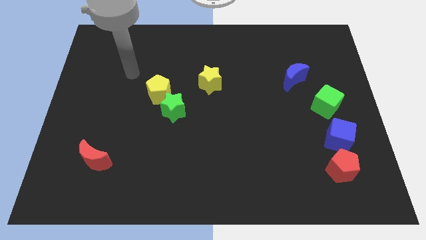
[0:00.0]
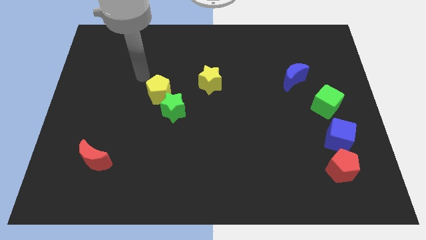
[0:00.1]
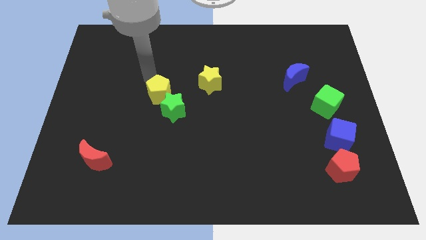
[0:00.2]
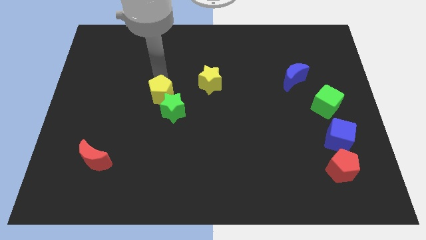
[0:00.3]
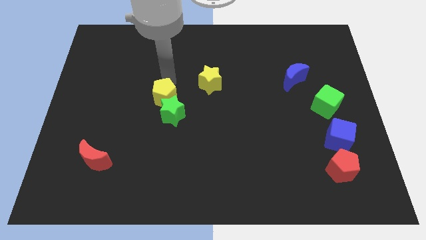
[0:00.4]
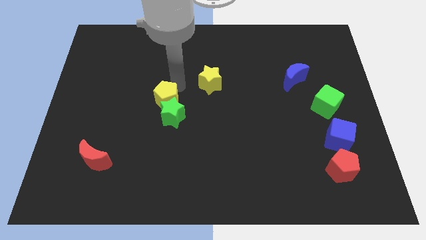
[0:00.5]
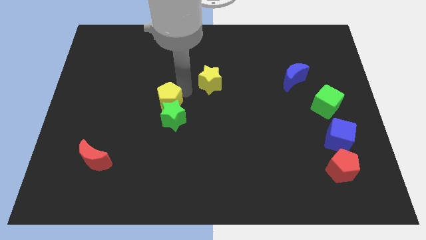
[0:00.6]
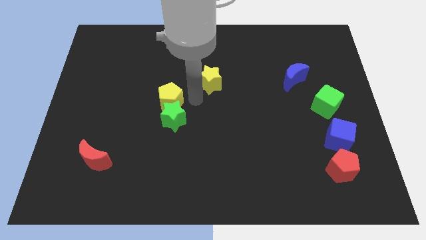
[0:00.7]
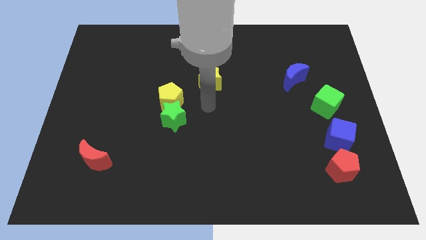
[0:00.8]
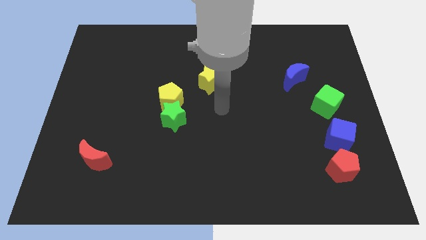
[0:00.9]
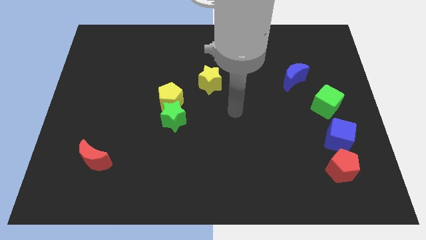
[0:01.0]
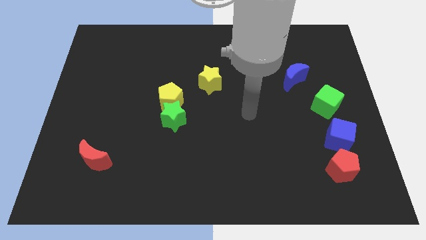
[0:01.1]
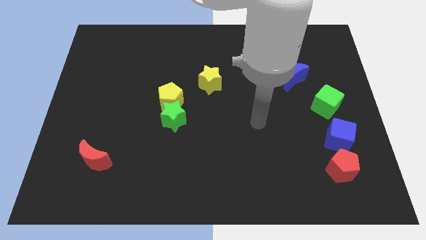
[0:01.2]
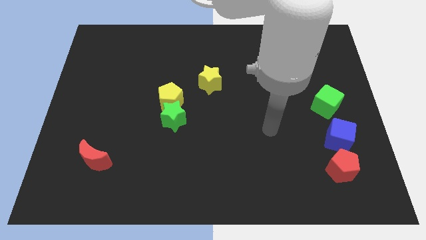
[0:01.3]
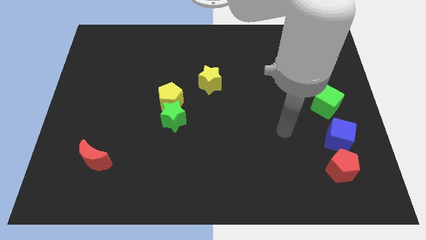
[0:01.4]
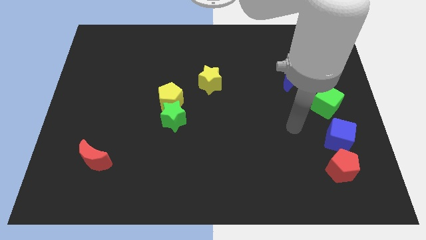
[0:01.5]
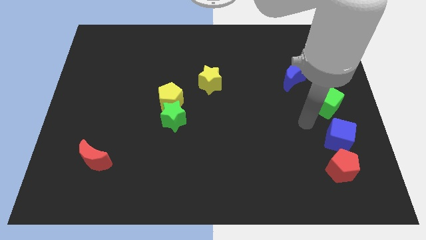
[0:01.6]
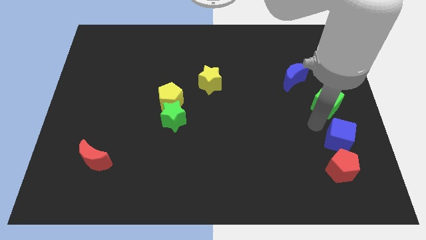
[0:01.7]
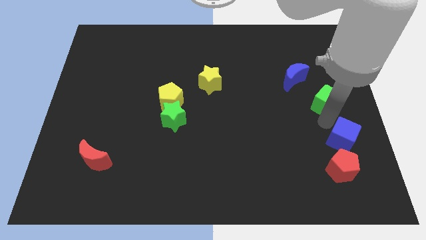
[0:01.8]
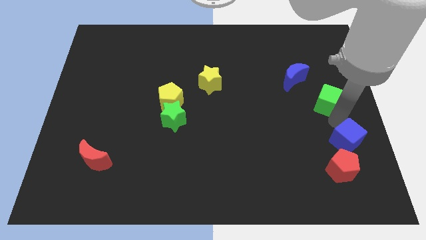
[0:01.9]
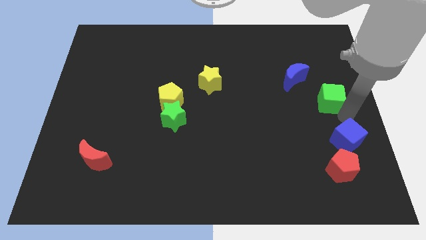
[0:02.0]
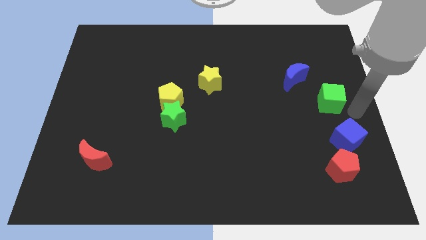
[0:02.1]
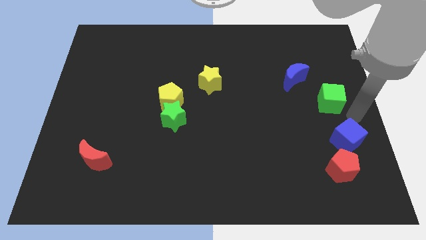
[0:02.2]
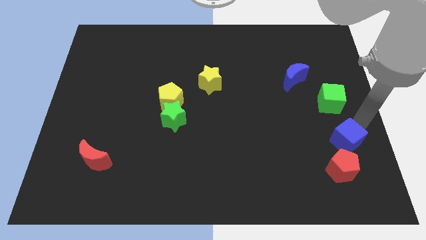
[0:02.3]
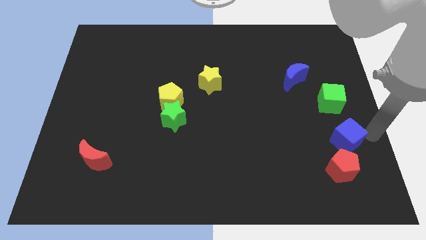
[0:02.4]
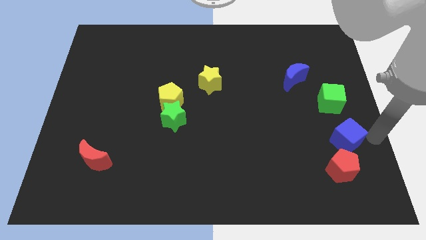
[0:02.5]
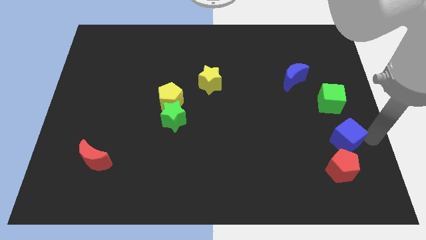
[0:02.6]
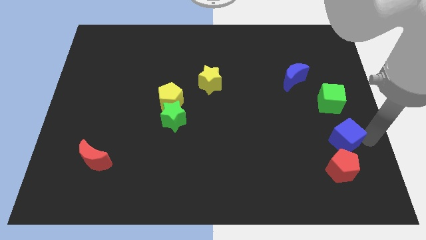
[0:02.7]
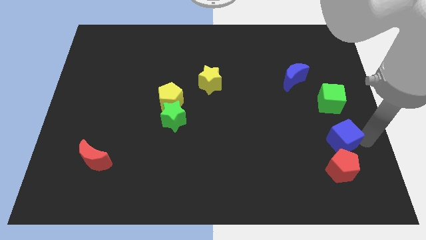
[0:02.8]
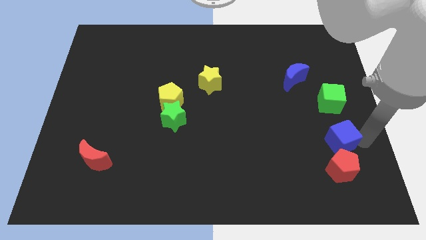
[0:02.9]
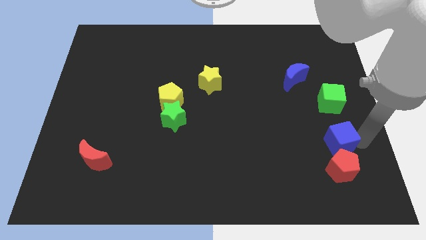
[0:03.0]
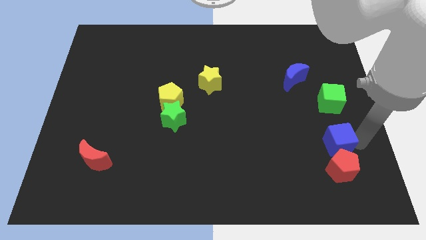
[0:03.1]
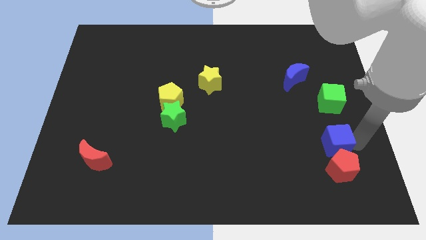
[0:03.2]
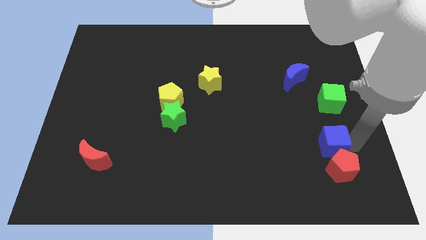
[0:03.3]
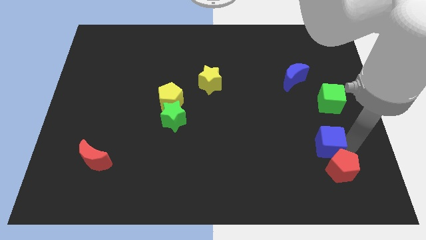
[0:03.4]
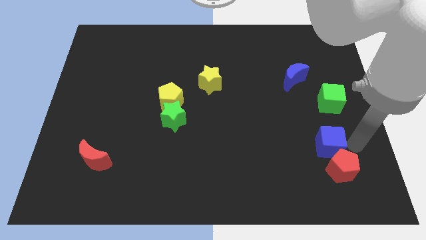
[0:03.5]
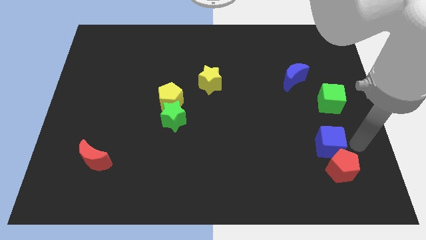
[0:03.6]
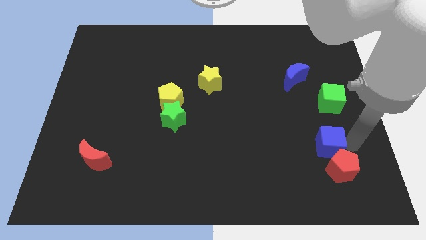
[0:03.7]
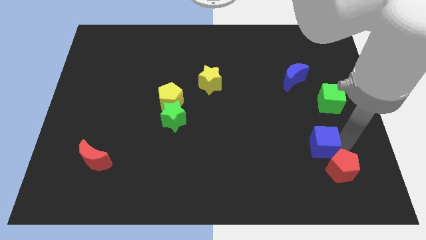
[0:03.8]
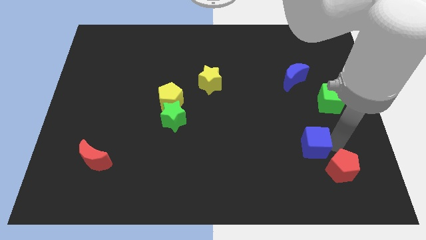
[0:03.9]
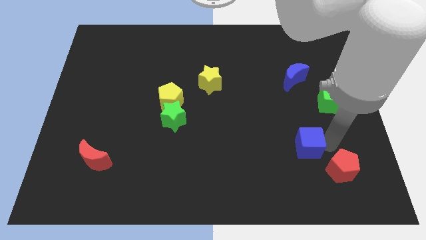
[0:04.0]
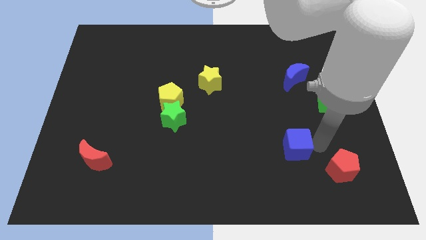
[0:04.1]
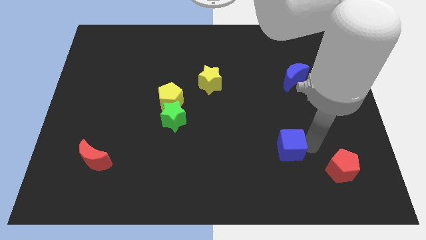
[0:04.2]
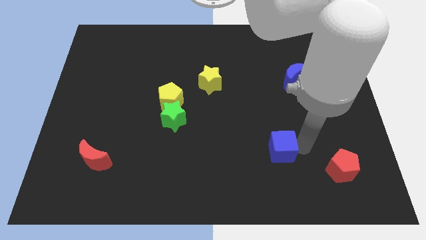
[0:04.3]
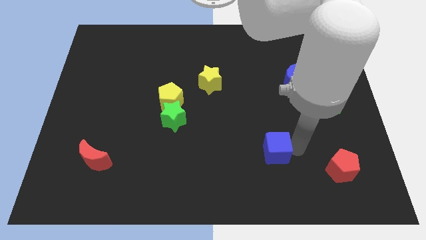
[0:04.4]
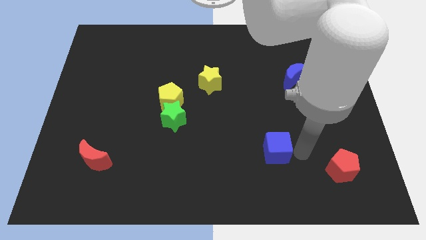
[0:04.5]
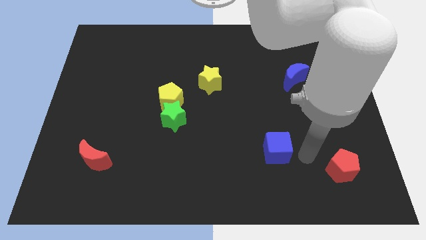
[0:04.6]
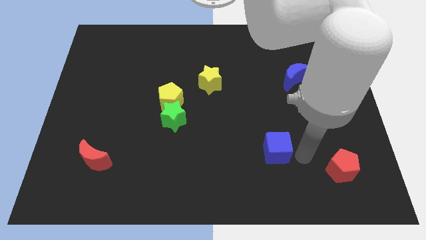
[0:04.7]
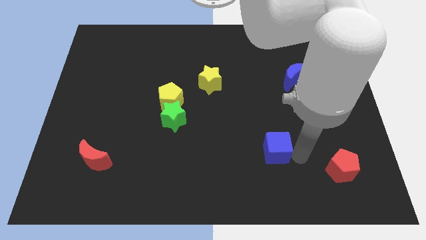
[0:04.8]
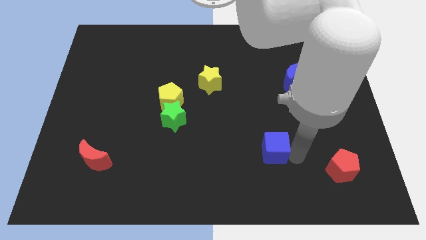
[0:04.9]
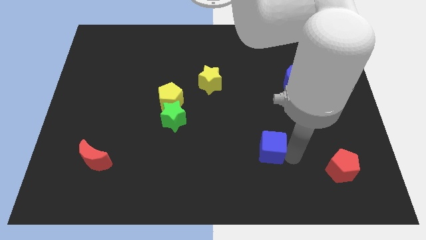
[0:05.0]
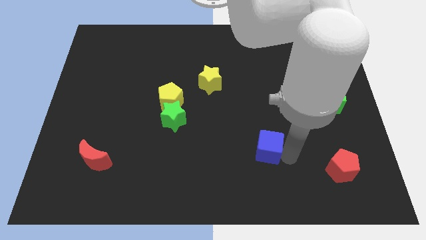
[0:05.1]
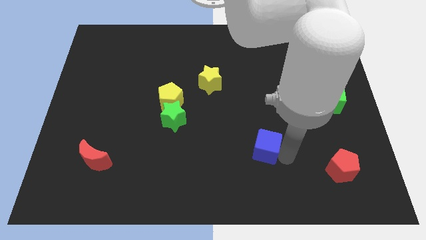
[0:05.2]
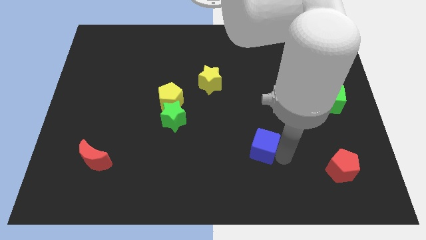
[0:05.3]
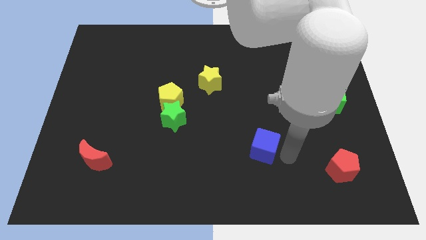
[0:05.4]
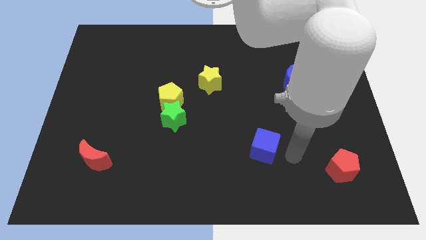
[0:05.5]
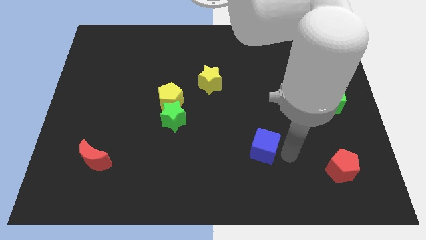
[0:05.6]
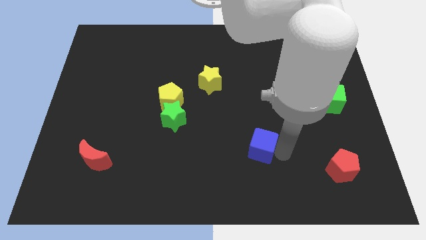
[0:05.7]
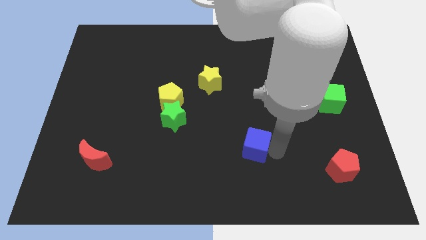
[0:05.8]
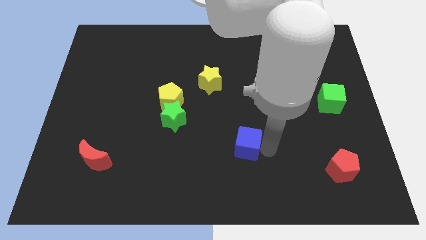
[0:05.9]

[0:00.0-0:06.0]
slide the blue cube left

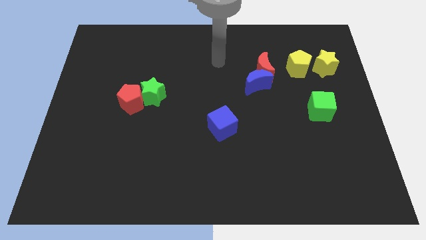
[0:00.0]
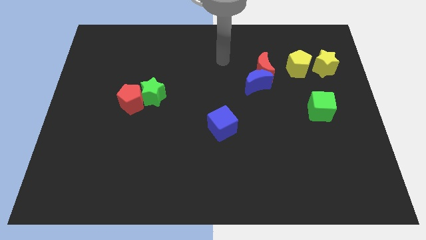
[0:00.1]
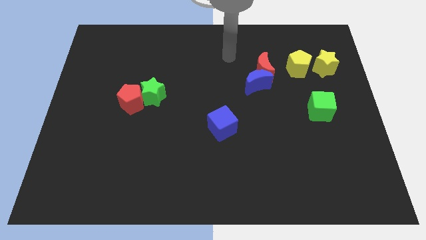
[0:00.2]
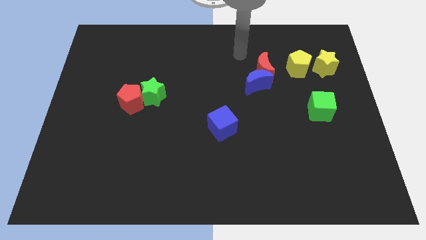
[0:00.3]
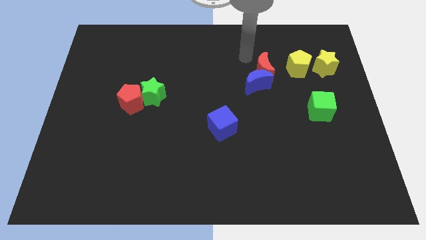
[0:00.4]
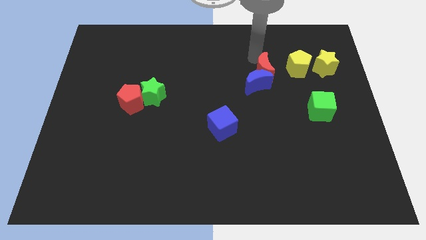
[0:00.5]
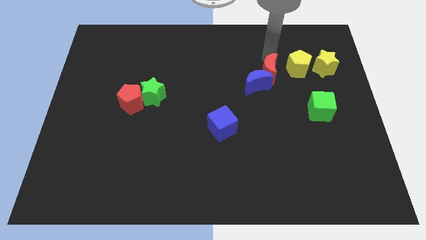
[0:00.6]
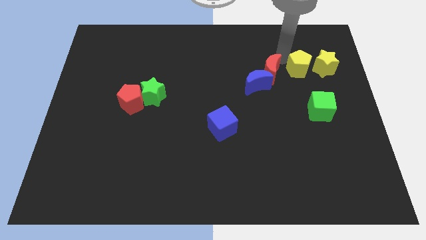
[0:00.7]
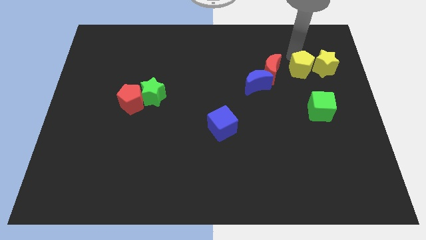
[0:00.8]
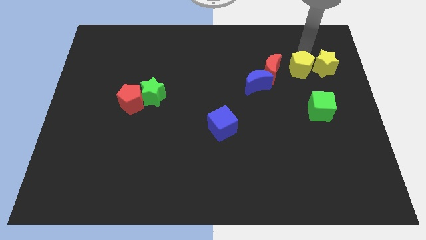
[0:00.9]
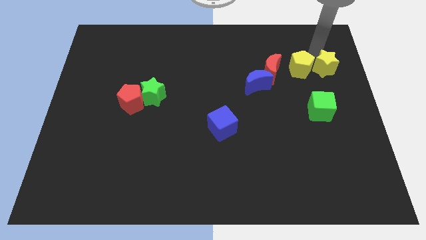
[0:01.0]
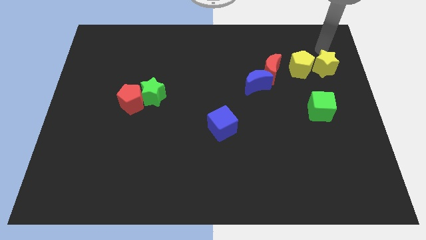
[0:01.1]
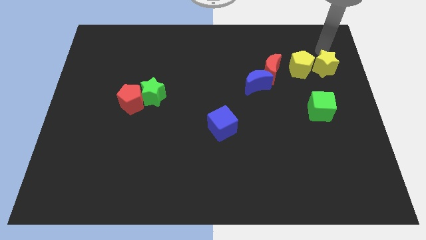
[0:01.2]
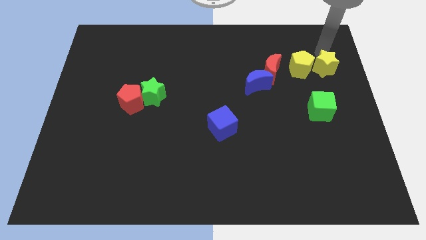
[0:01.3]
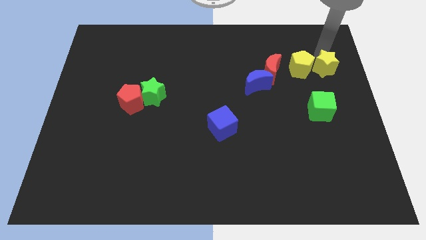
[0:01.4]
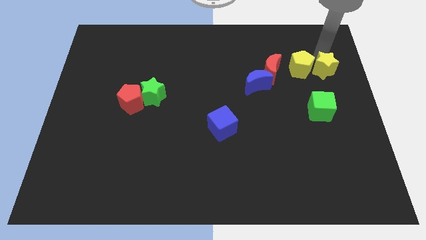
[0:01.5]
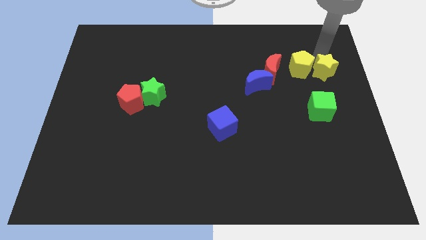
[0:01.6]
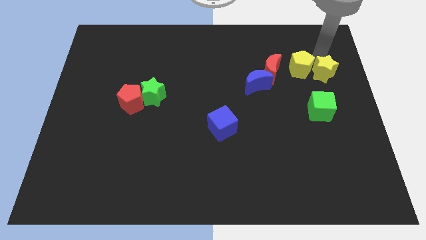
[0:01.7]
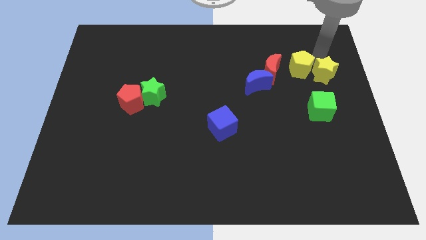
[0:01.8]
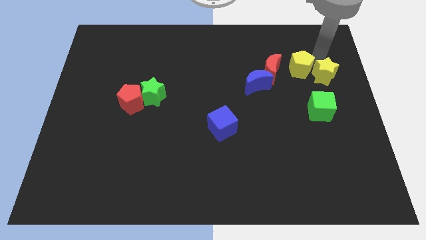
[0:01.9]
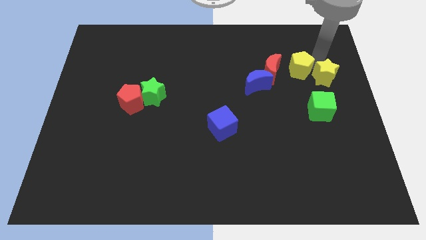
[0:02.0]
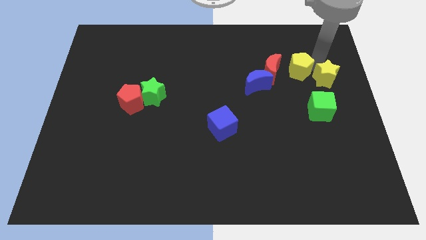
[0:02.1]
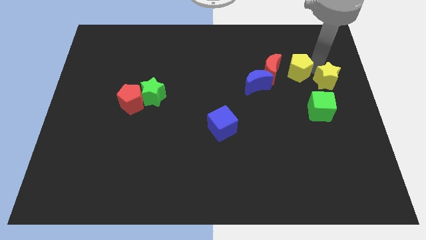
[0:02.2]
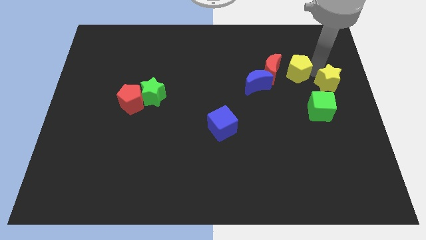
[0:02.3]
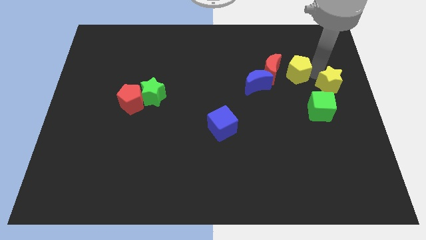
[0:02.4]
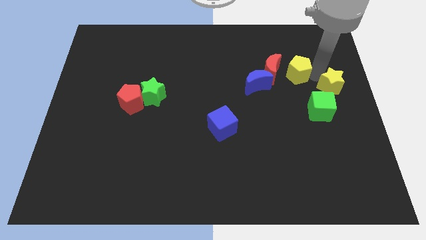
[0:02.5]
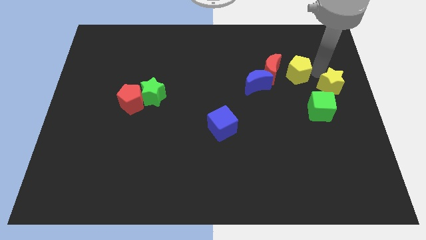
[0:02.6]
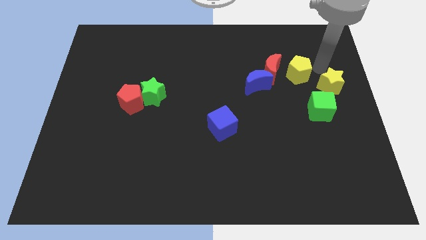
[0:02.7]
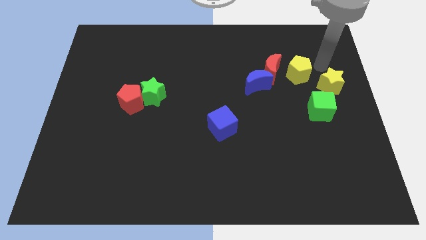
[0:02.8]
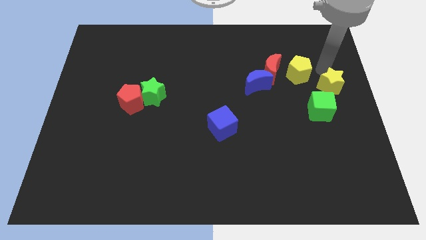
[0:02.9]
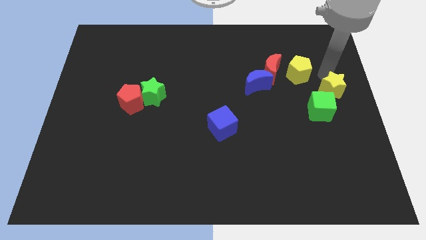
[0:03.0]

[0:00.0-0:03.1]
move the yellow star a little down
